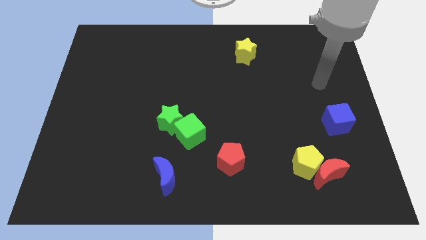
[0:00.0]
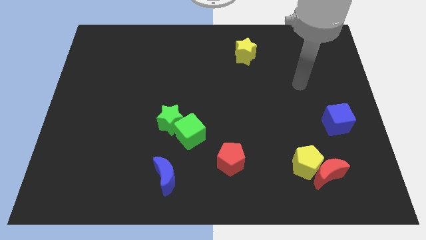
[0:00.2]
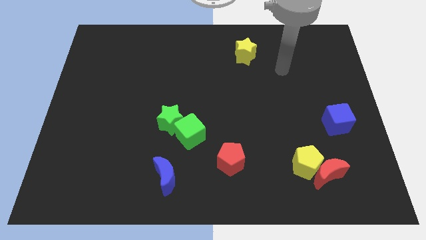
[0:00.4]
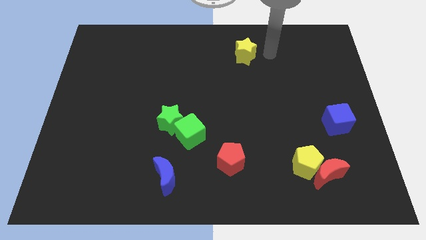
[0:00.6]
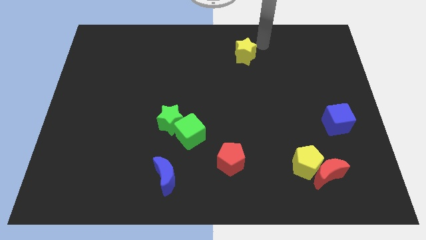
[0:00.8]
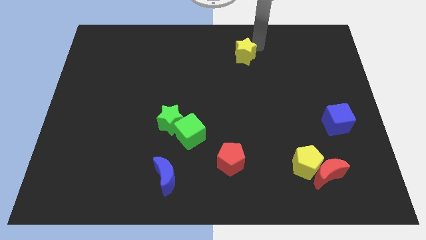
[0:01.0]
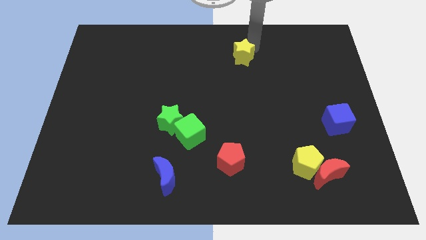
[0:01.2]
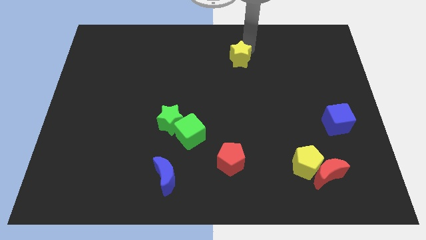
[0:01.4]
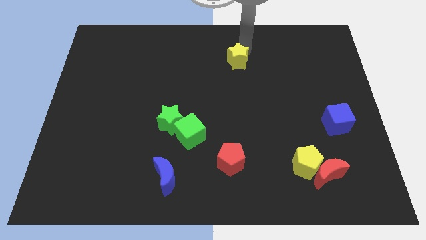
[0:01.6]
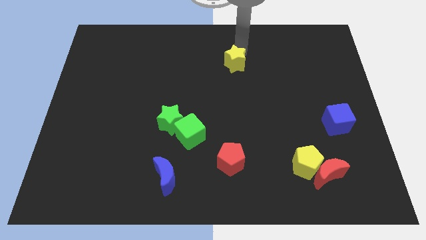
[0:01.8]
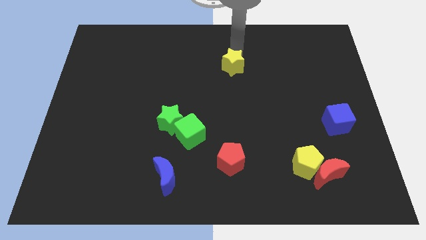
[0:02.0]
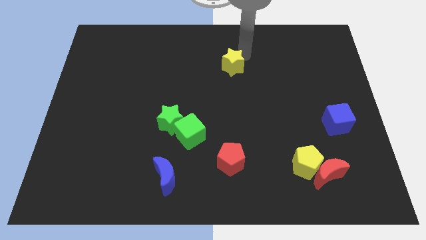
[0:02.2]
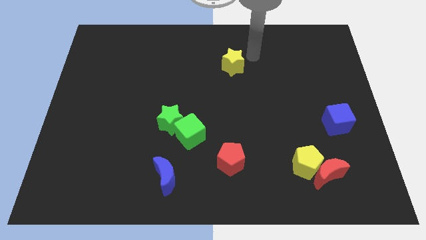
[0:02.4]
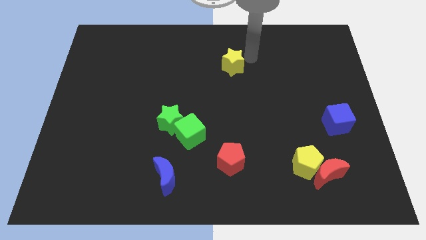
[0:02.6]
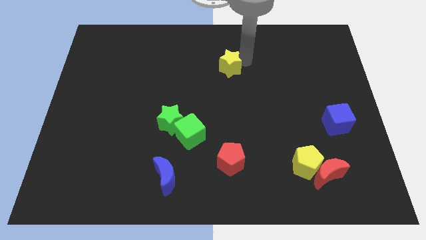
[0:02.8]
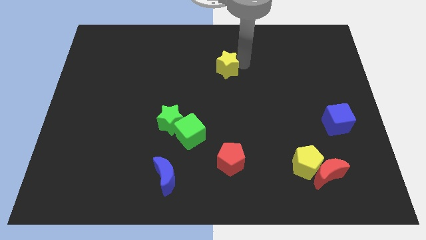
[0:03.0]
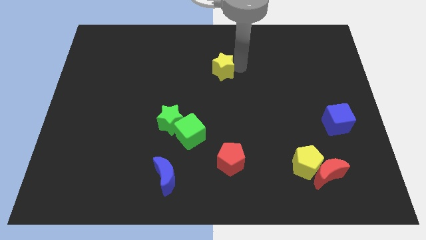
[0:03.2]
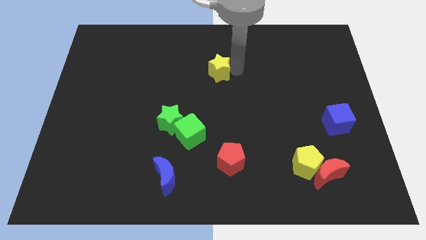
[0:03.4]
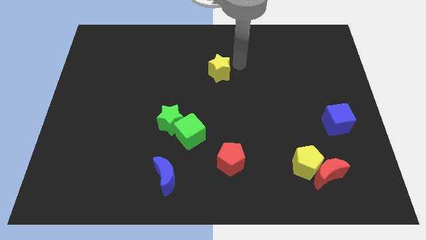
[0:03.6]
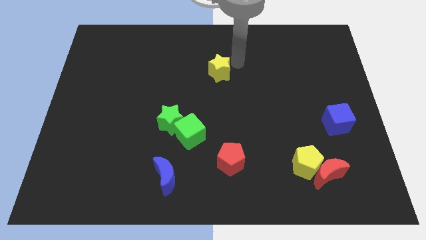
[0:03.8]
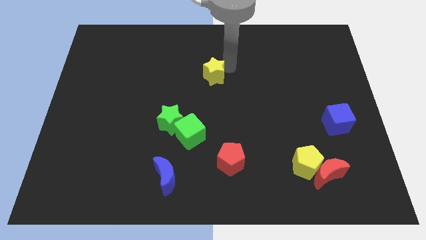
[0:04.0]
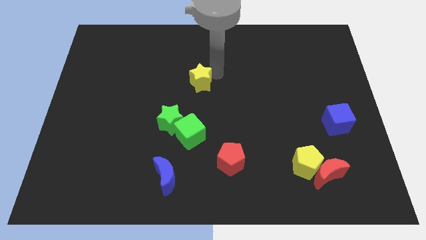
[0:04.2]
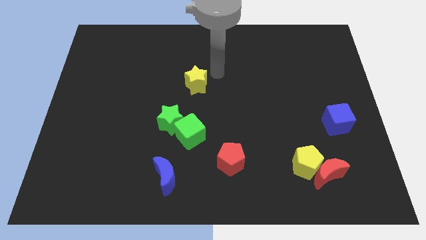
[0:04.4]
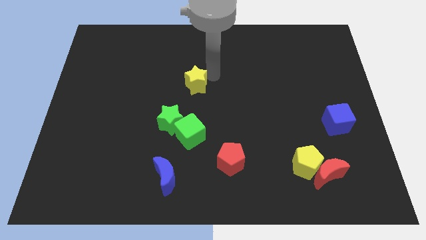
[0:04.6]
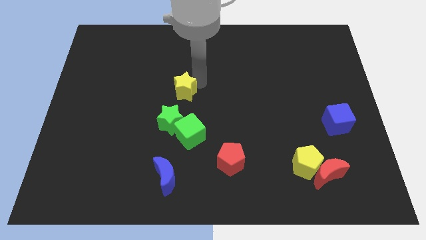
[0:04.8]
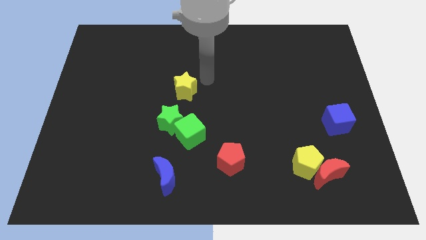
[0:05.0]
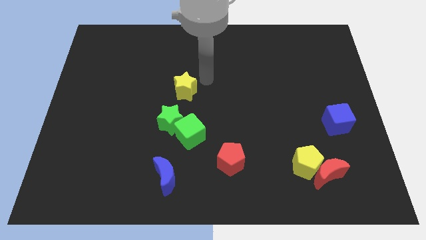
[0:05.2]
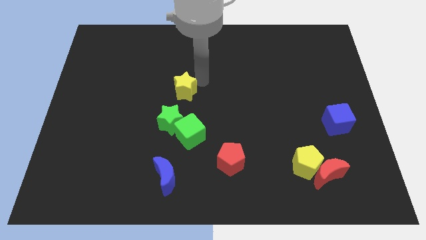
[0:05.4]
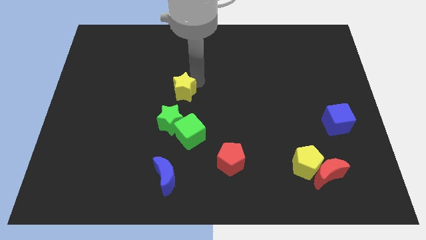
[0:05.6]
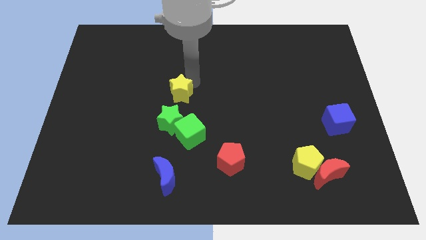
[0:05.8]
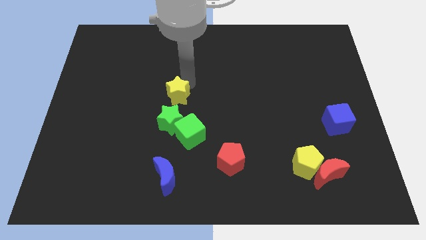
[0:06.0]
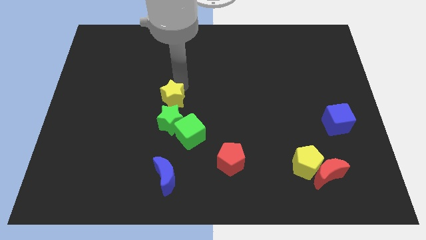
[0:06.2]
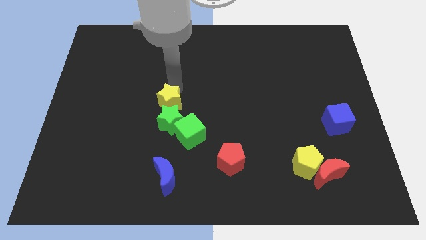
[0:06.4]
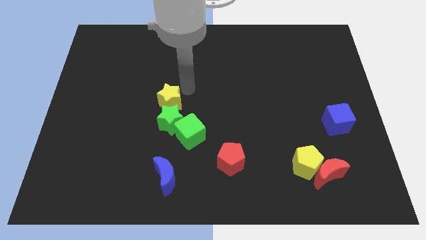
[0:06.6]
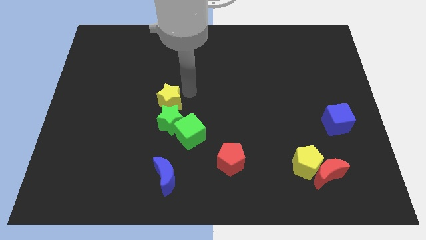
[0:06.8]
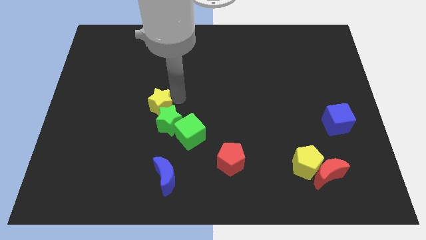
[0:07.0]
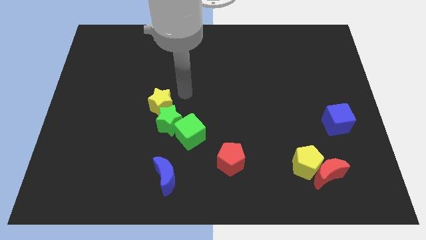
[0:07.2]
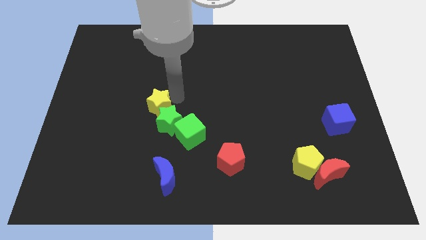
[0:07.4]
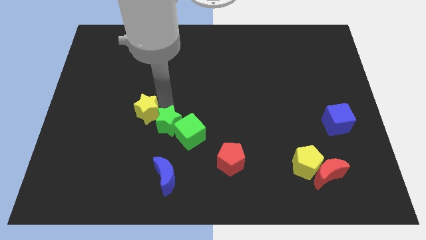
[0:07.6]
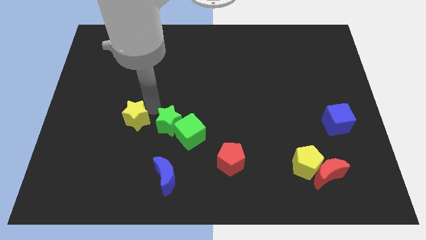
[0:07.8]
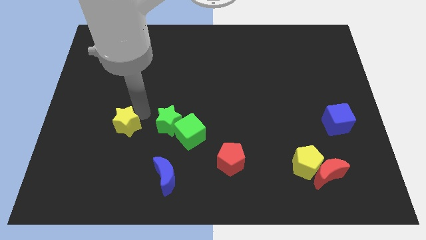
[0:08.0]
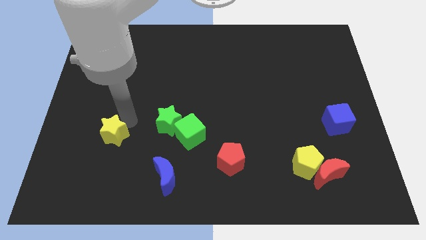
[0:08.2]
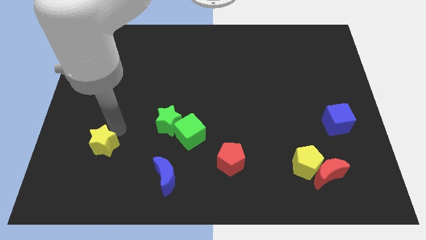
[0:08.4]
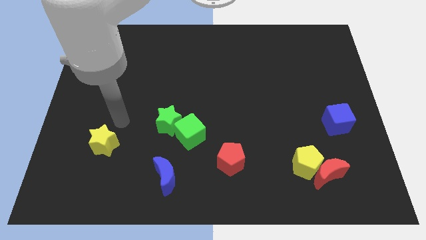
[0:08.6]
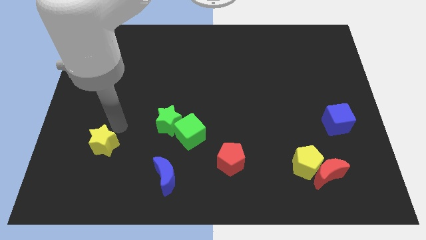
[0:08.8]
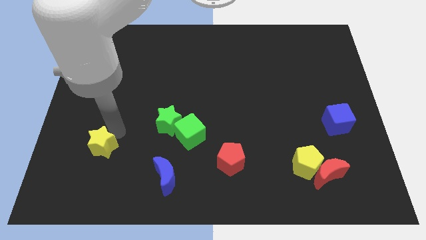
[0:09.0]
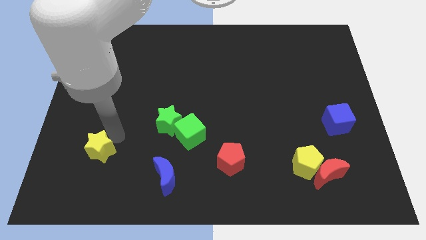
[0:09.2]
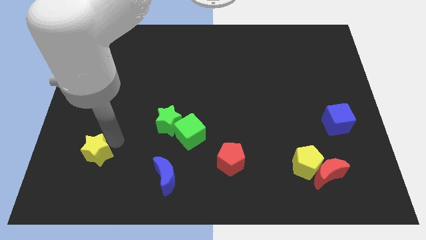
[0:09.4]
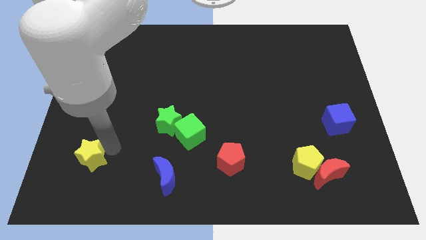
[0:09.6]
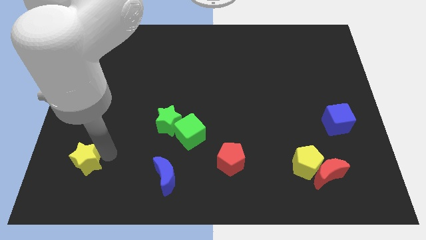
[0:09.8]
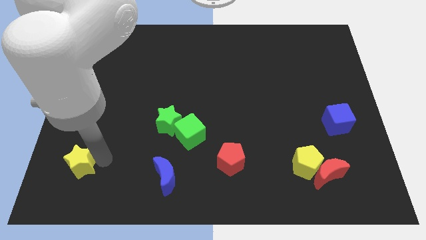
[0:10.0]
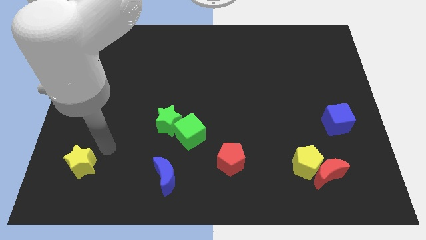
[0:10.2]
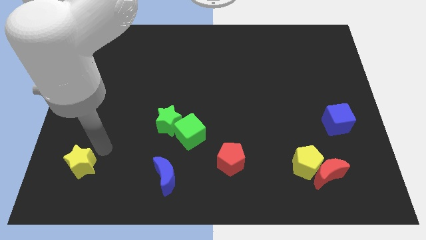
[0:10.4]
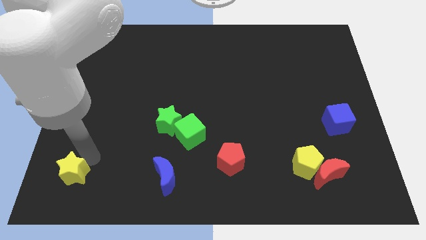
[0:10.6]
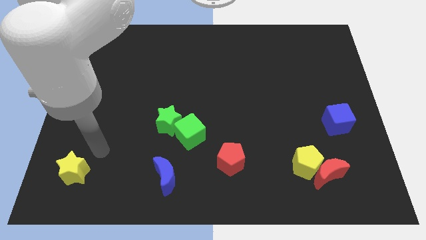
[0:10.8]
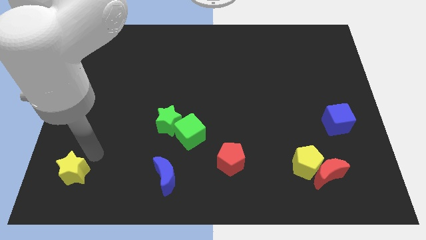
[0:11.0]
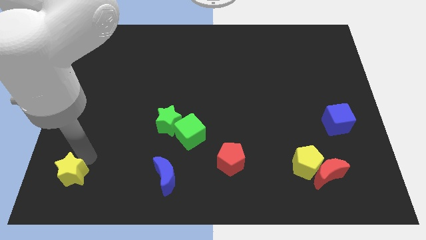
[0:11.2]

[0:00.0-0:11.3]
slide the yellow star to the bottom left of the board
